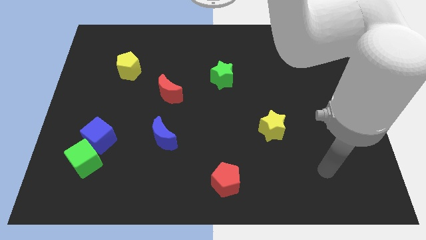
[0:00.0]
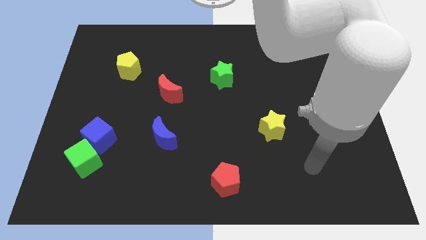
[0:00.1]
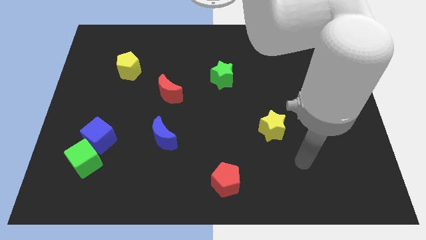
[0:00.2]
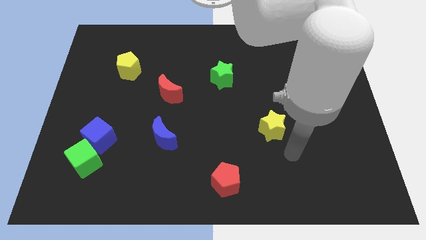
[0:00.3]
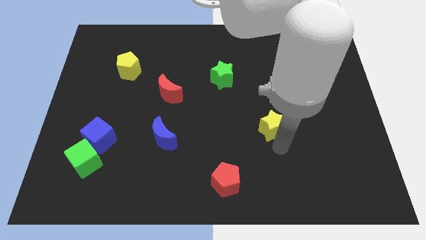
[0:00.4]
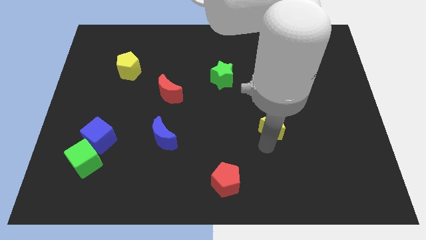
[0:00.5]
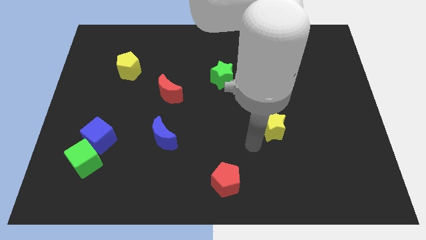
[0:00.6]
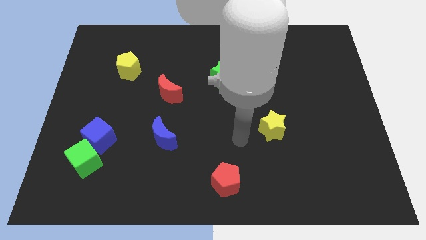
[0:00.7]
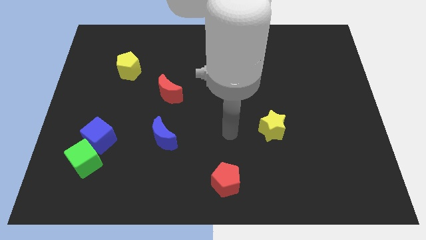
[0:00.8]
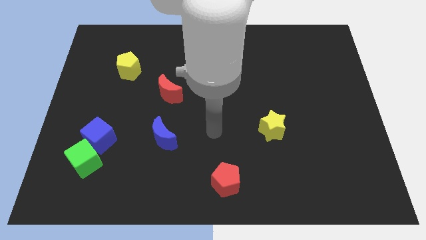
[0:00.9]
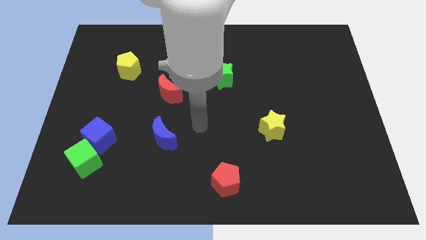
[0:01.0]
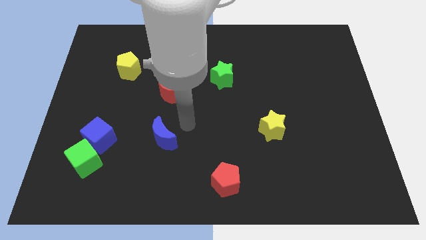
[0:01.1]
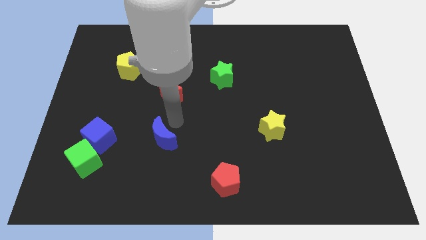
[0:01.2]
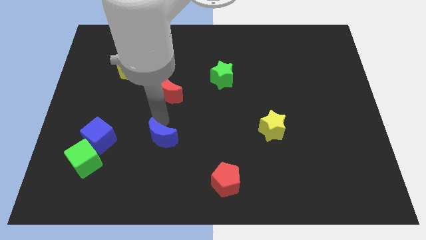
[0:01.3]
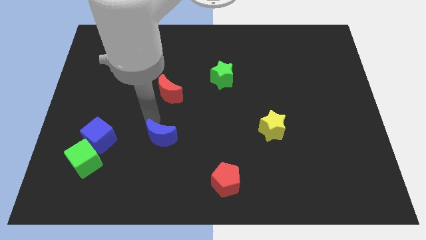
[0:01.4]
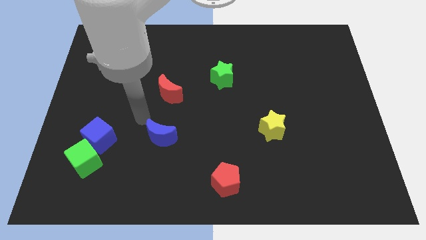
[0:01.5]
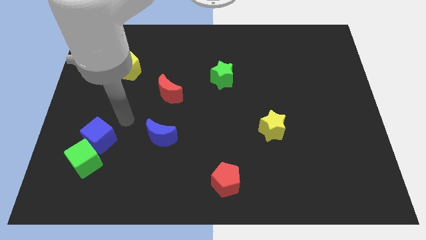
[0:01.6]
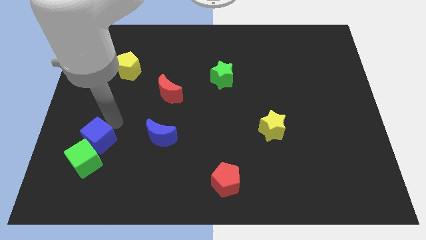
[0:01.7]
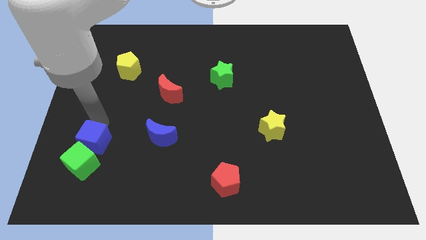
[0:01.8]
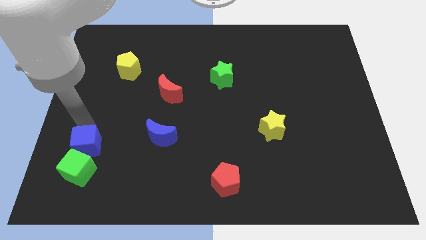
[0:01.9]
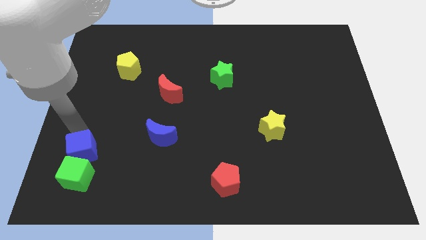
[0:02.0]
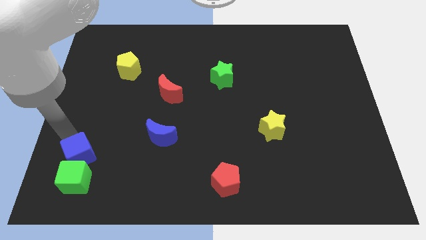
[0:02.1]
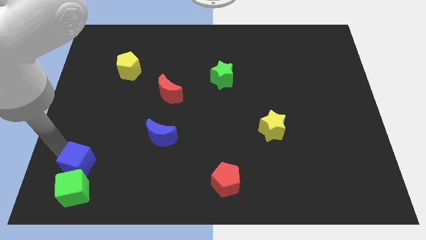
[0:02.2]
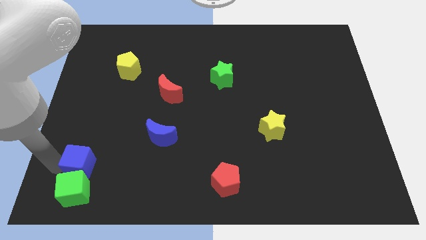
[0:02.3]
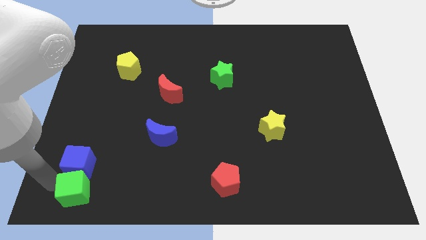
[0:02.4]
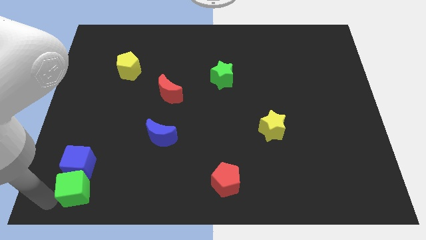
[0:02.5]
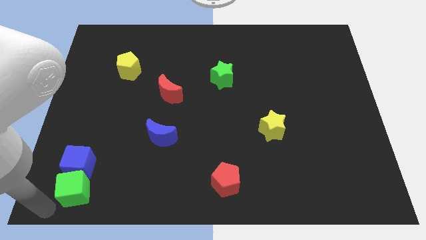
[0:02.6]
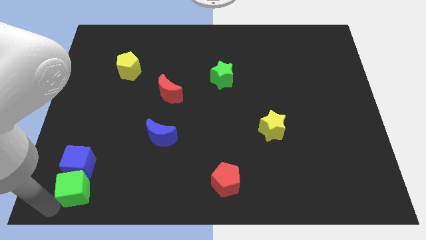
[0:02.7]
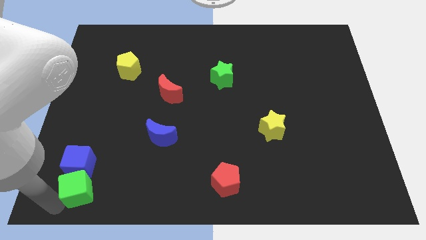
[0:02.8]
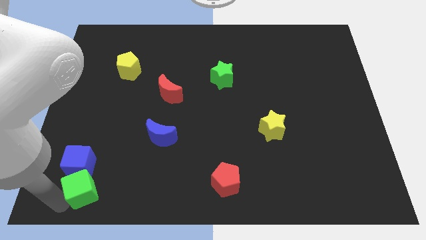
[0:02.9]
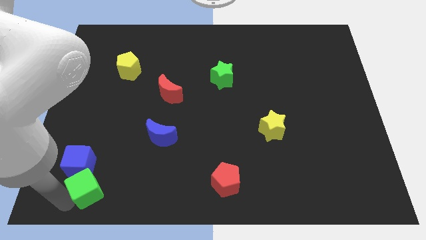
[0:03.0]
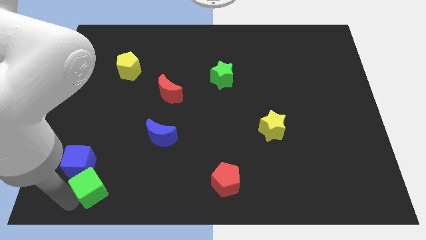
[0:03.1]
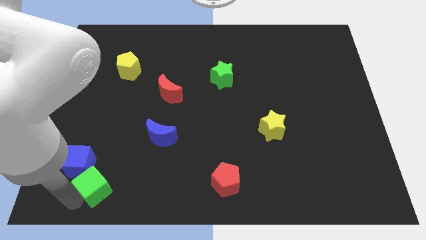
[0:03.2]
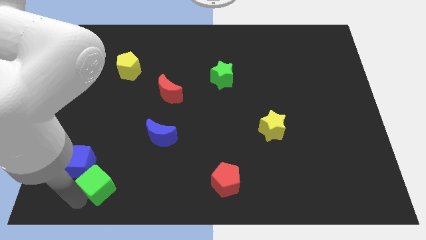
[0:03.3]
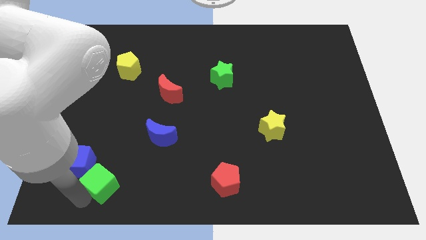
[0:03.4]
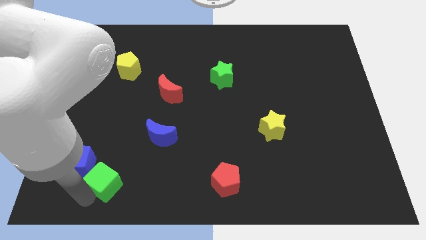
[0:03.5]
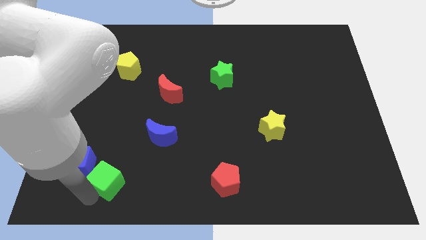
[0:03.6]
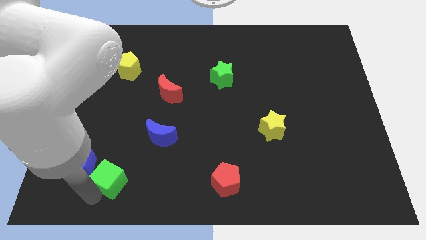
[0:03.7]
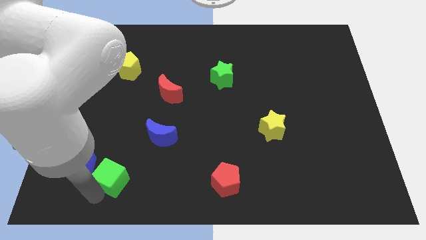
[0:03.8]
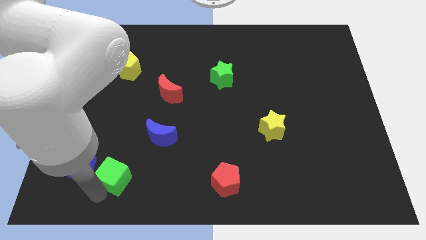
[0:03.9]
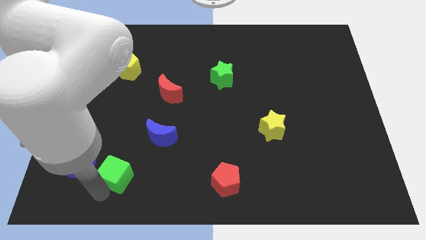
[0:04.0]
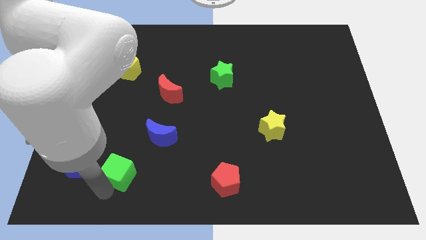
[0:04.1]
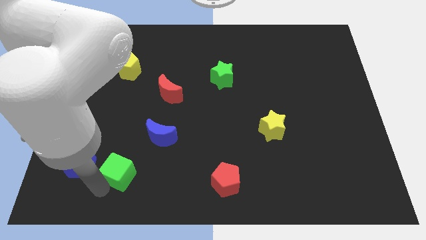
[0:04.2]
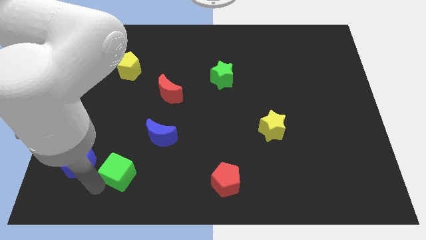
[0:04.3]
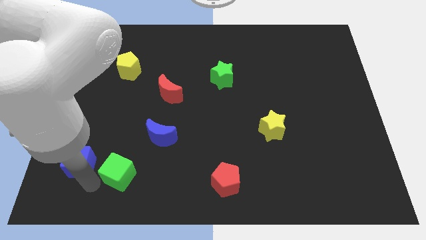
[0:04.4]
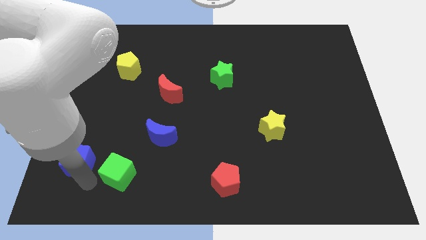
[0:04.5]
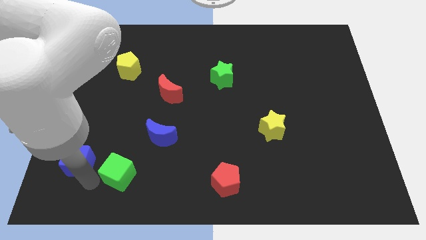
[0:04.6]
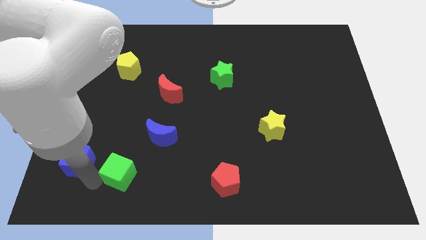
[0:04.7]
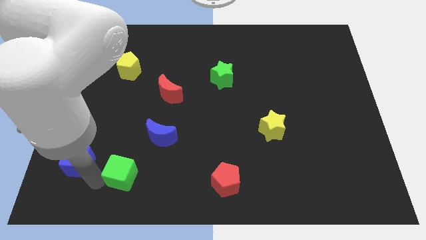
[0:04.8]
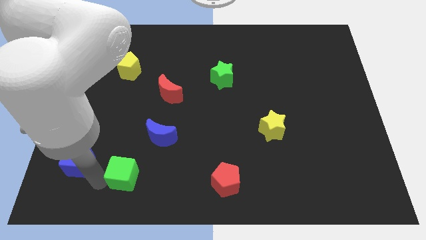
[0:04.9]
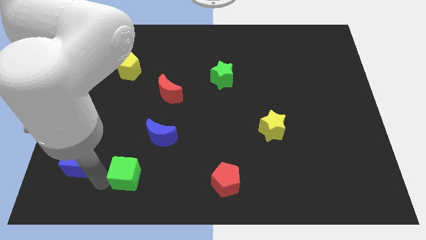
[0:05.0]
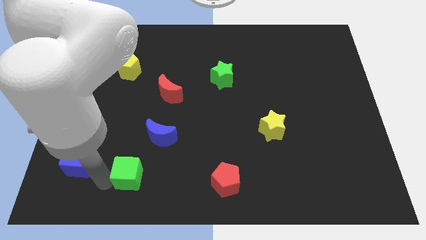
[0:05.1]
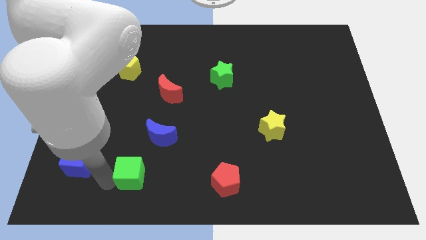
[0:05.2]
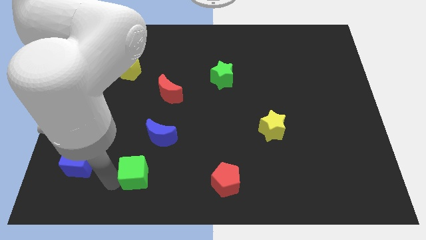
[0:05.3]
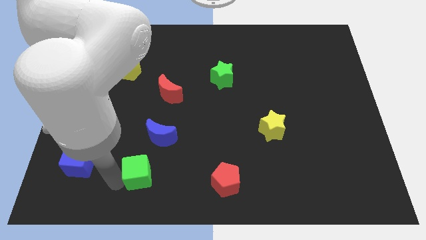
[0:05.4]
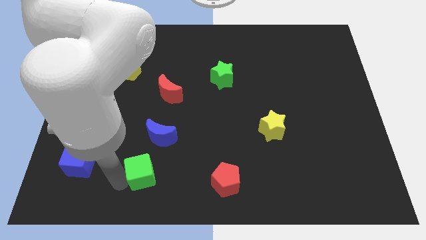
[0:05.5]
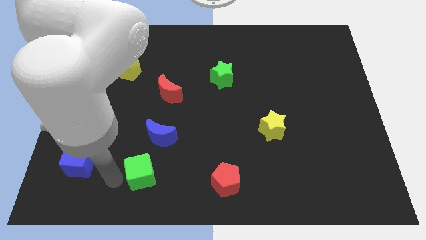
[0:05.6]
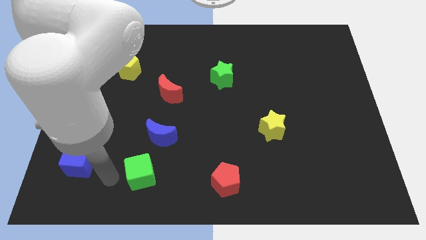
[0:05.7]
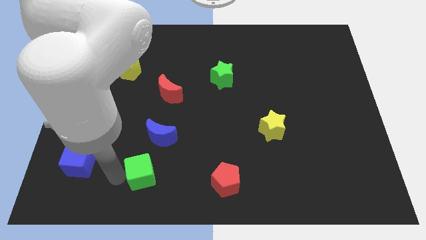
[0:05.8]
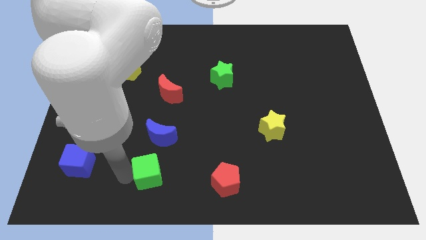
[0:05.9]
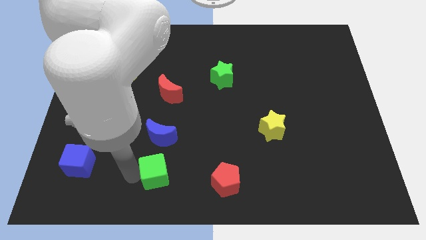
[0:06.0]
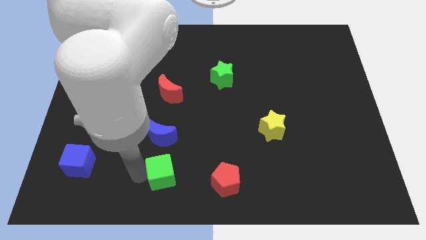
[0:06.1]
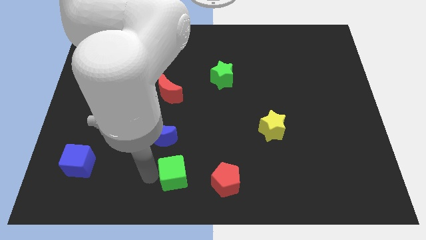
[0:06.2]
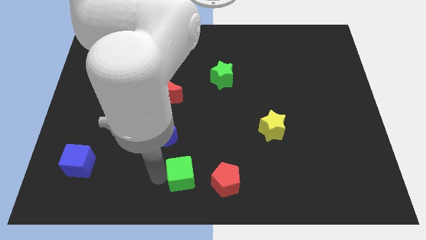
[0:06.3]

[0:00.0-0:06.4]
slide the green cube to the right

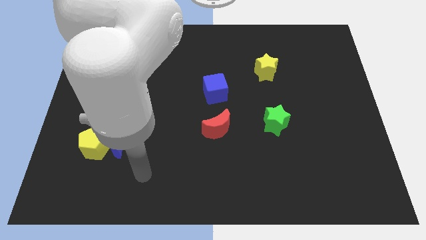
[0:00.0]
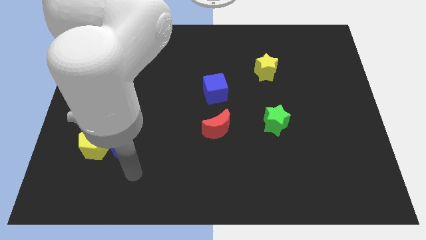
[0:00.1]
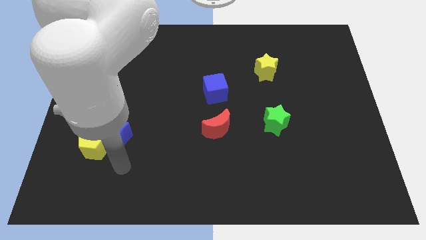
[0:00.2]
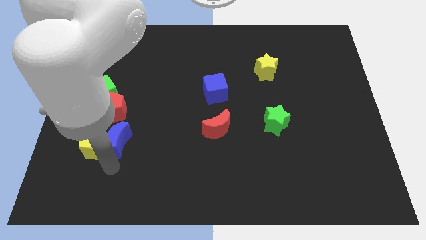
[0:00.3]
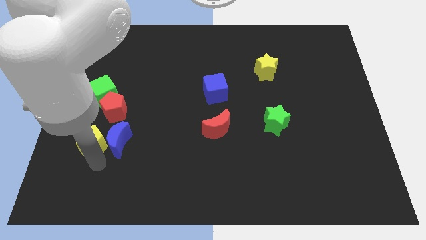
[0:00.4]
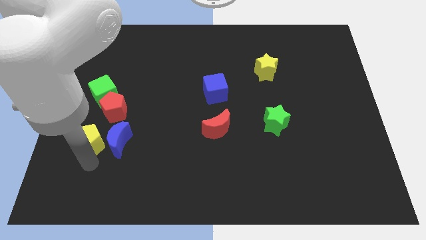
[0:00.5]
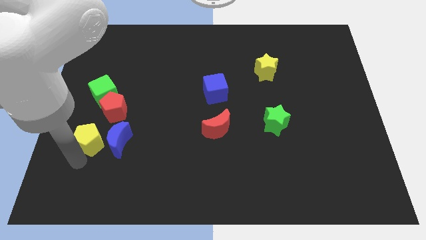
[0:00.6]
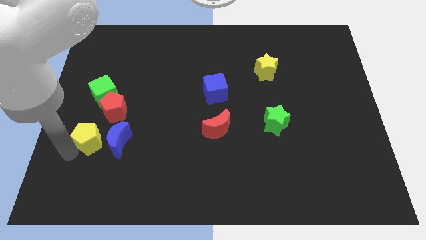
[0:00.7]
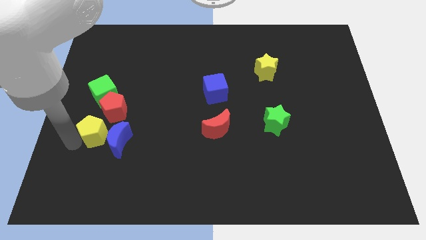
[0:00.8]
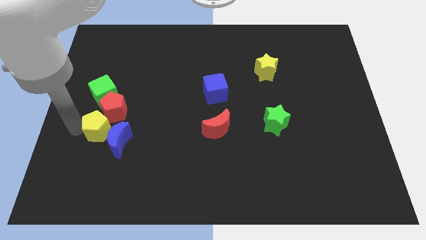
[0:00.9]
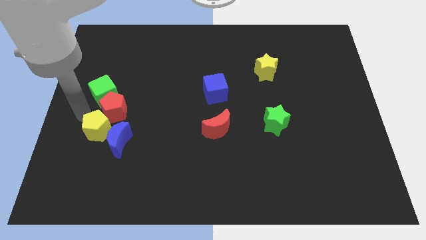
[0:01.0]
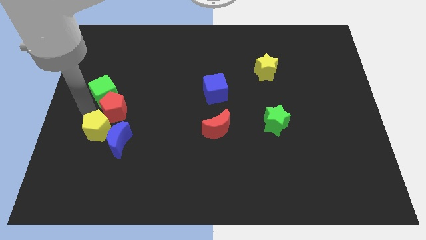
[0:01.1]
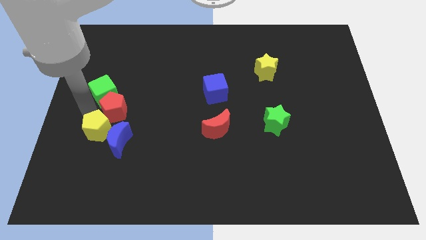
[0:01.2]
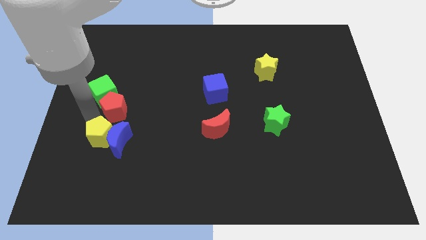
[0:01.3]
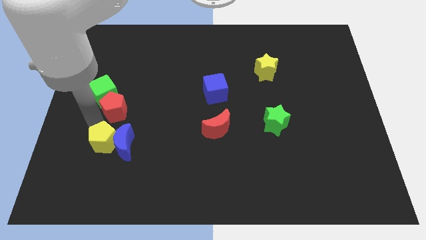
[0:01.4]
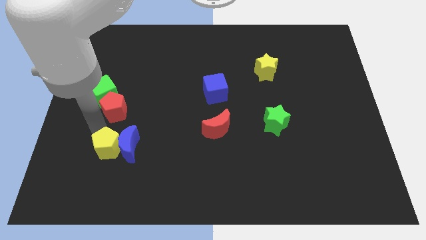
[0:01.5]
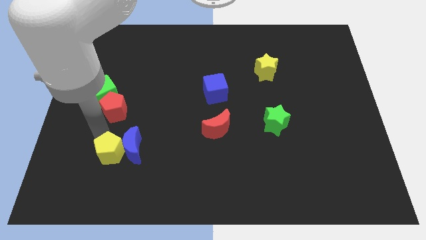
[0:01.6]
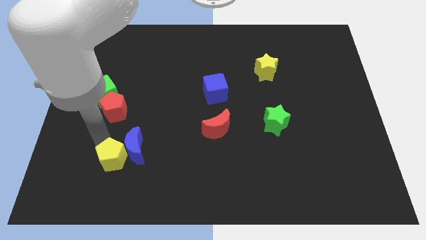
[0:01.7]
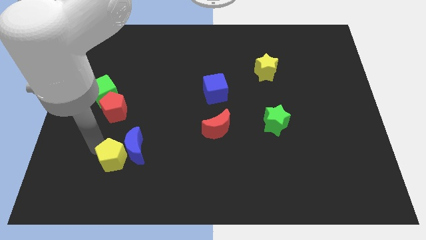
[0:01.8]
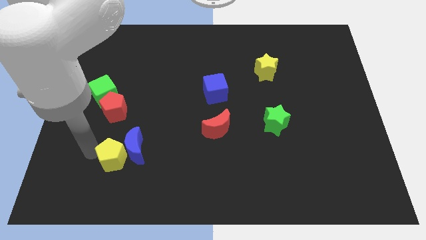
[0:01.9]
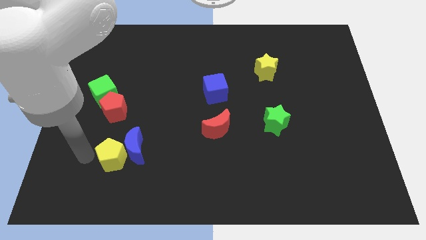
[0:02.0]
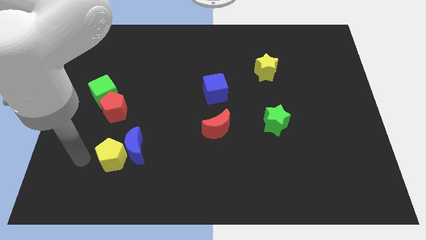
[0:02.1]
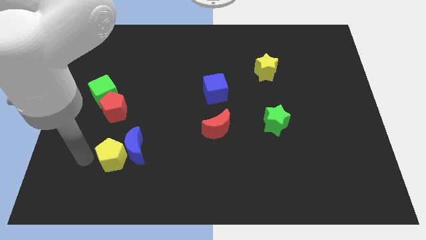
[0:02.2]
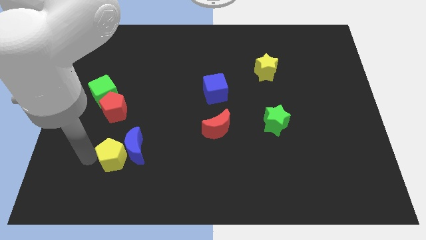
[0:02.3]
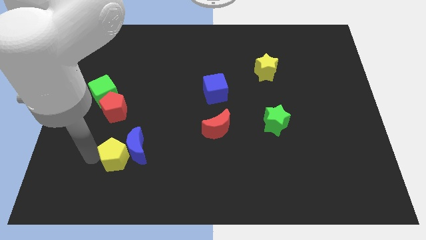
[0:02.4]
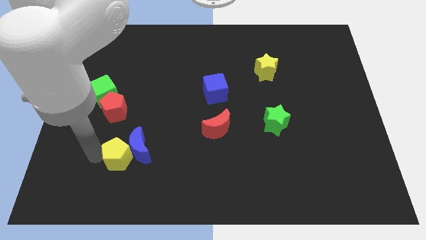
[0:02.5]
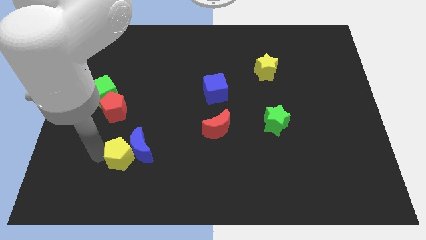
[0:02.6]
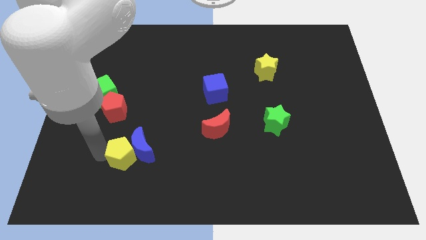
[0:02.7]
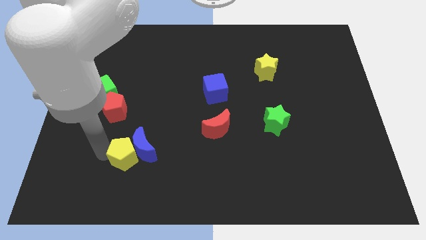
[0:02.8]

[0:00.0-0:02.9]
move the yellow pentagon right somewhat
